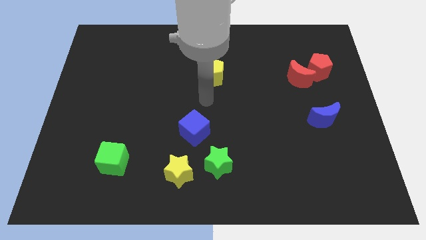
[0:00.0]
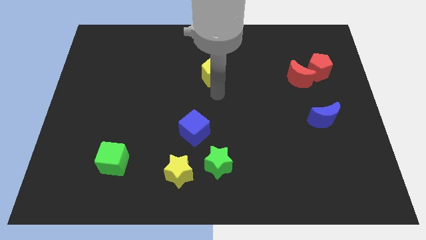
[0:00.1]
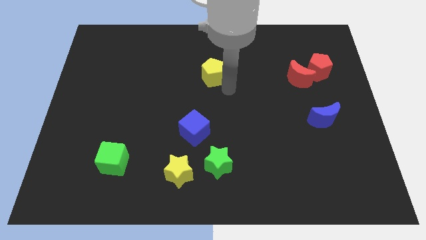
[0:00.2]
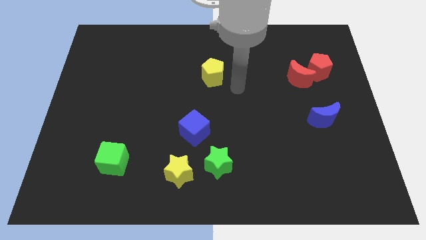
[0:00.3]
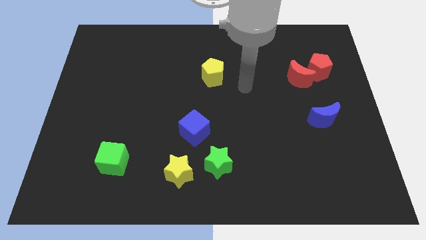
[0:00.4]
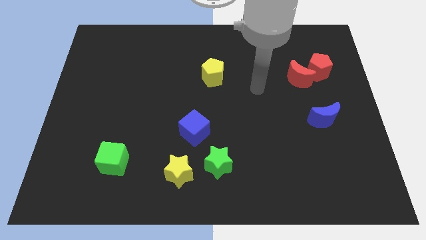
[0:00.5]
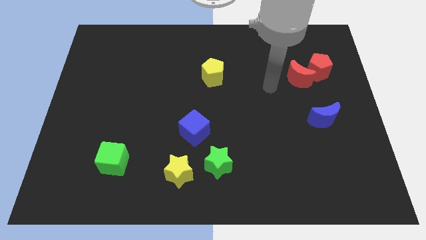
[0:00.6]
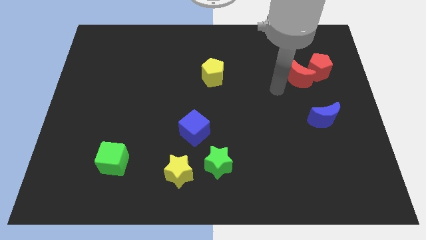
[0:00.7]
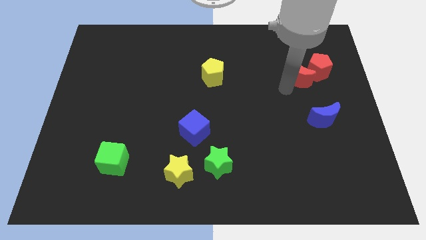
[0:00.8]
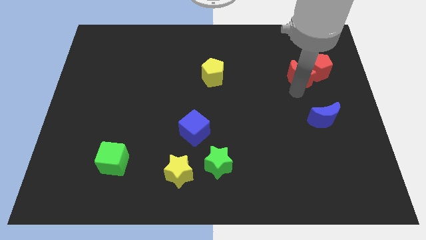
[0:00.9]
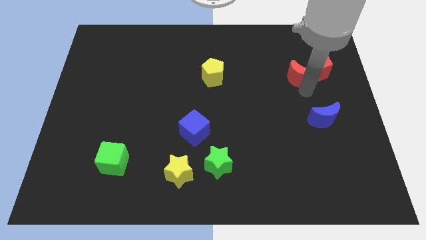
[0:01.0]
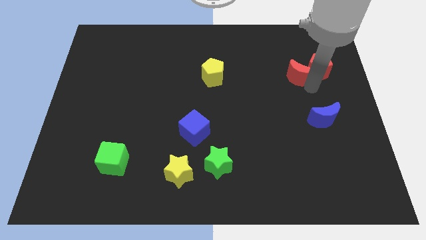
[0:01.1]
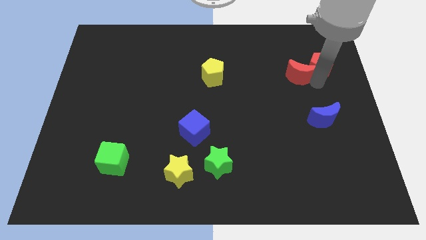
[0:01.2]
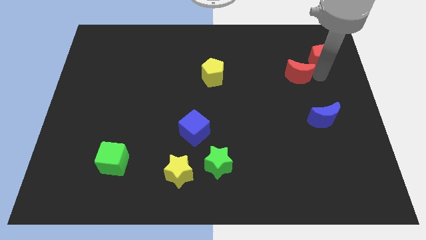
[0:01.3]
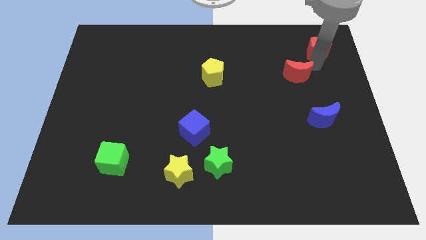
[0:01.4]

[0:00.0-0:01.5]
separate the red moon from the red pentagon

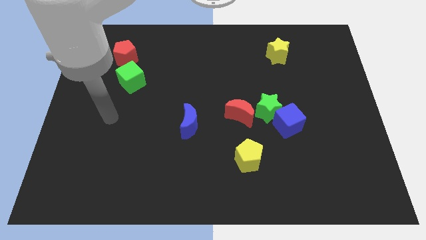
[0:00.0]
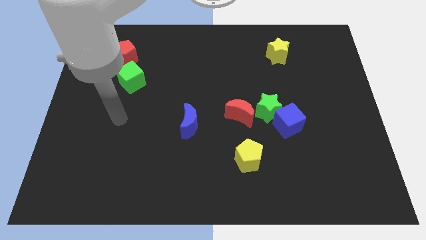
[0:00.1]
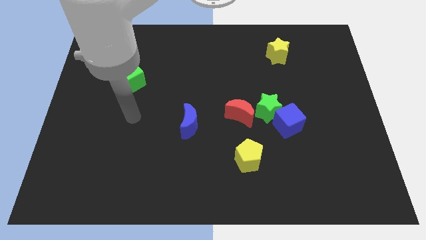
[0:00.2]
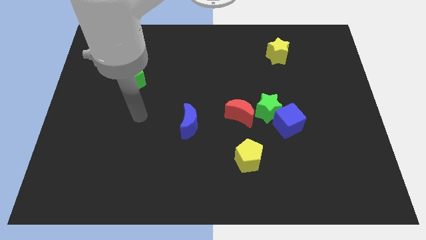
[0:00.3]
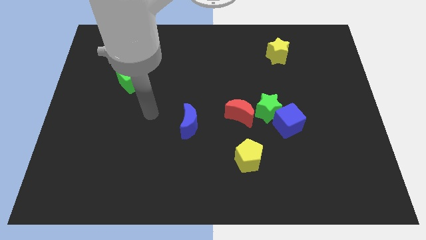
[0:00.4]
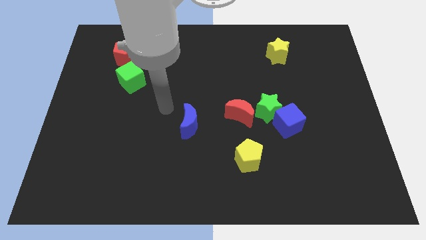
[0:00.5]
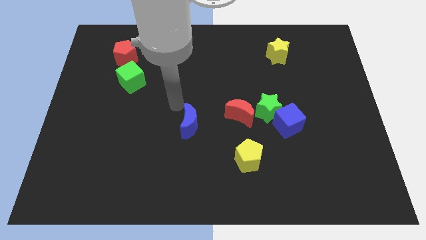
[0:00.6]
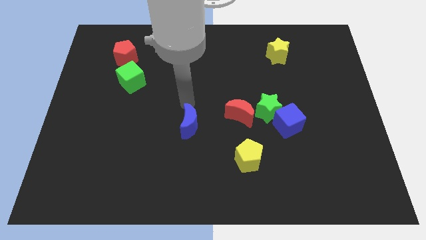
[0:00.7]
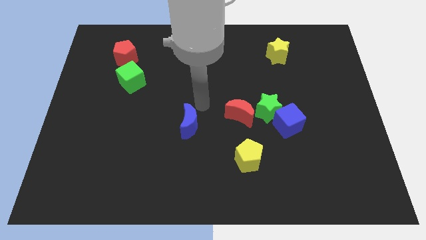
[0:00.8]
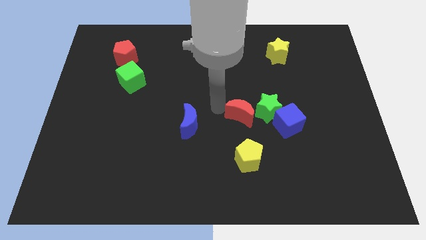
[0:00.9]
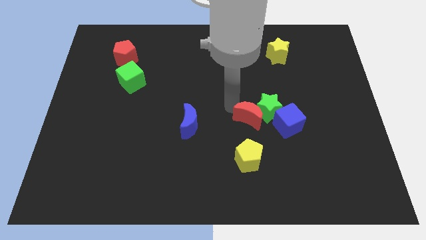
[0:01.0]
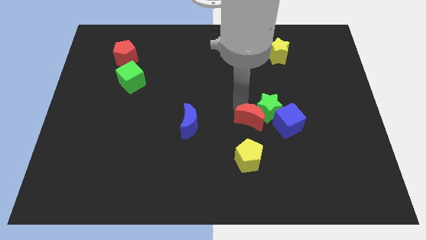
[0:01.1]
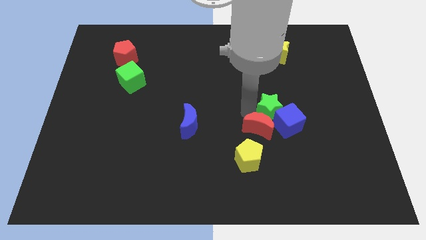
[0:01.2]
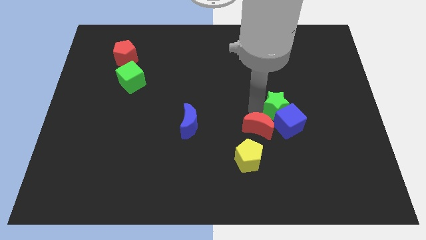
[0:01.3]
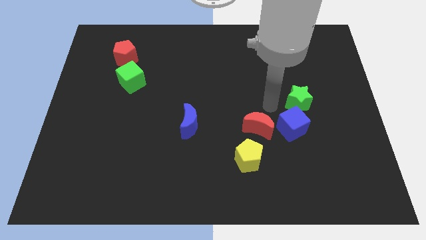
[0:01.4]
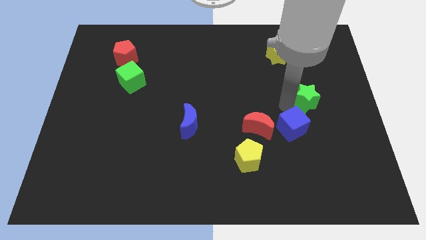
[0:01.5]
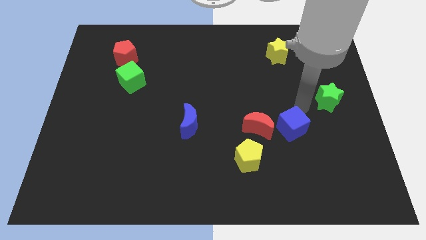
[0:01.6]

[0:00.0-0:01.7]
separate the blue cube from the green star

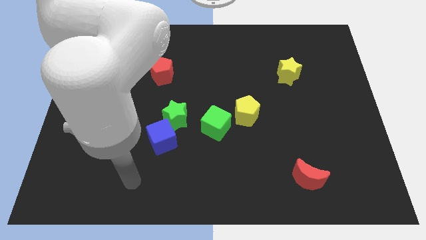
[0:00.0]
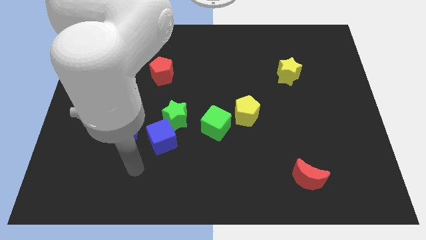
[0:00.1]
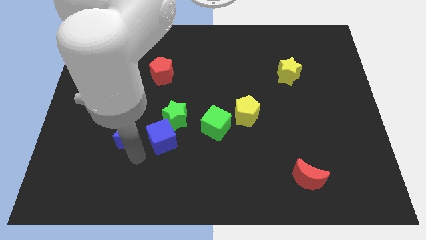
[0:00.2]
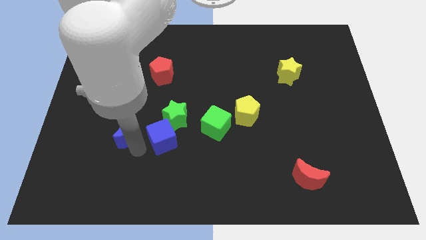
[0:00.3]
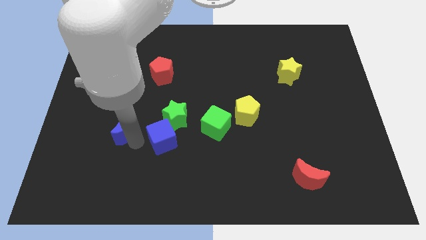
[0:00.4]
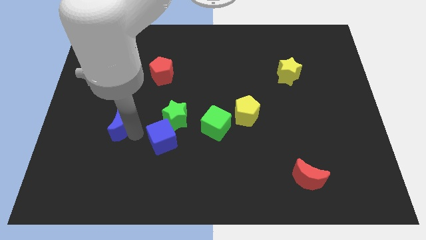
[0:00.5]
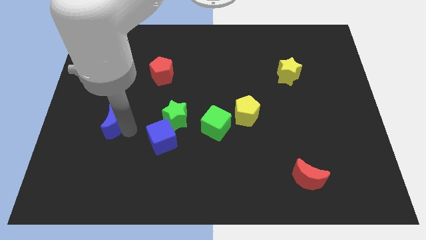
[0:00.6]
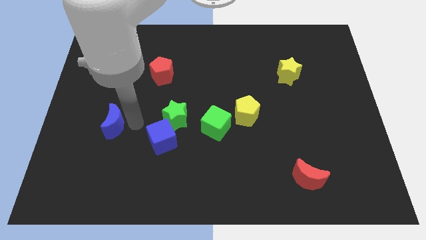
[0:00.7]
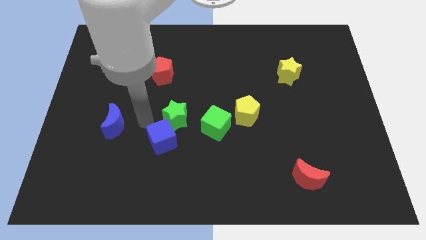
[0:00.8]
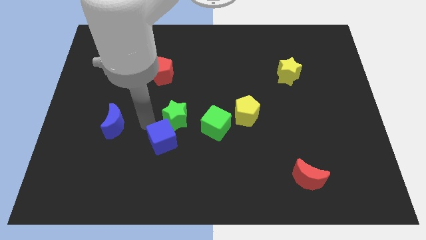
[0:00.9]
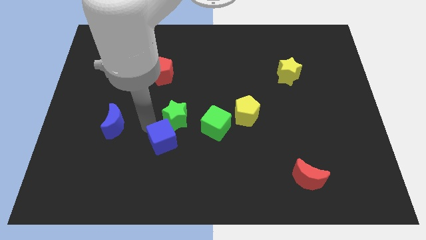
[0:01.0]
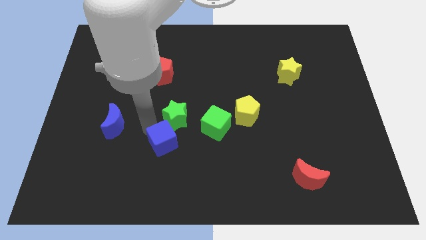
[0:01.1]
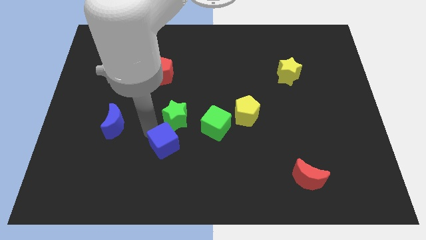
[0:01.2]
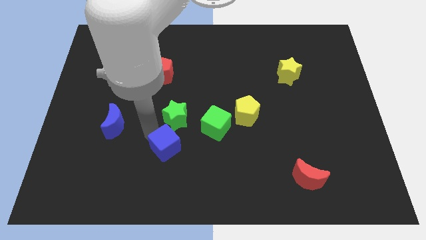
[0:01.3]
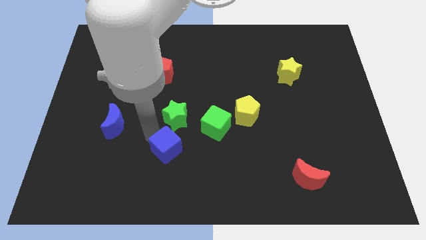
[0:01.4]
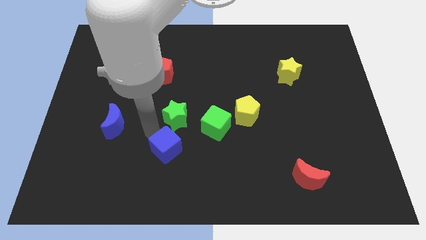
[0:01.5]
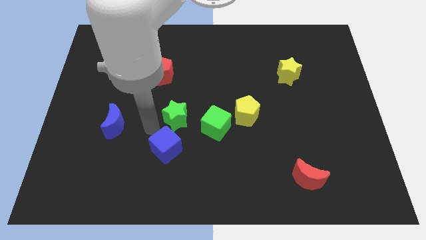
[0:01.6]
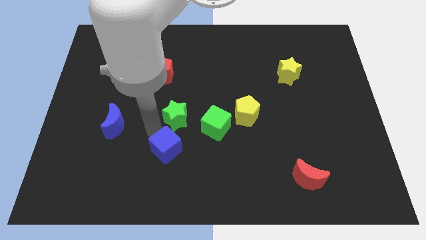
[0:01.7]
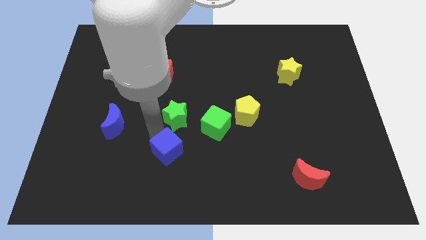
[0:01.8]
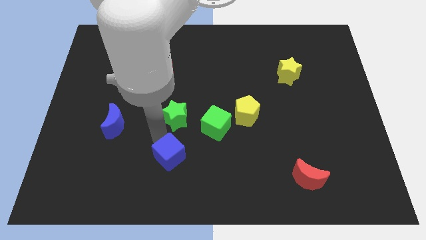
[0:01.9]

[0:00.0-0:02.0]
pull the blue cube apart from the green star and blue moon

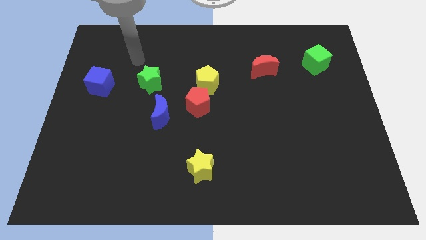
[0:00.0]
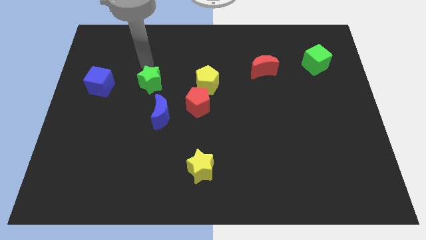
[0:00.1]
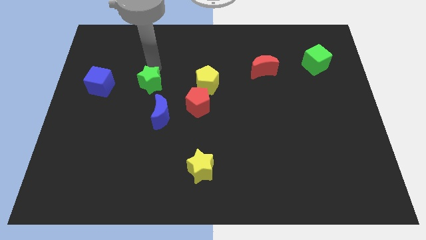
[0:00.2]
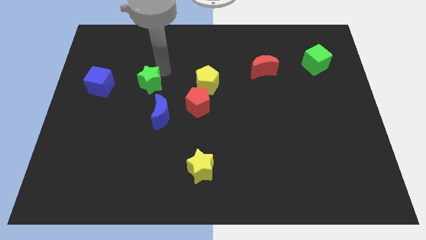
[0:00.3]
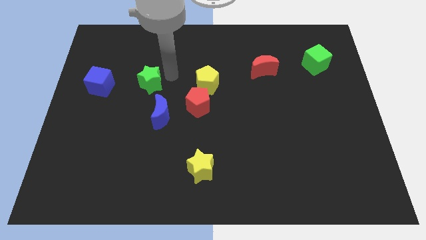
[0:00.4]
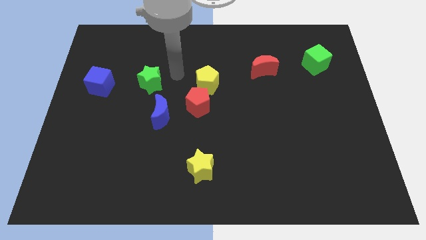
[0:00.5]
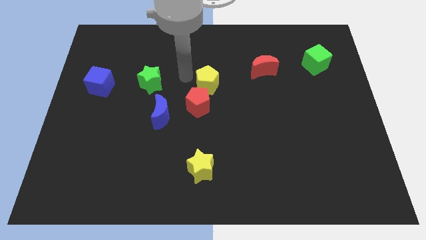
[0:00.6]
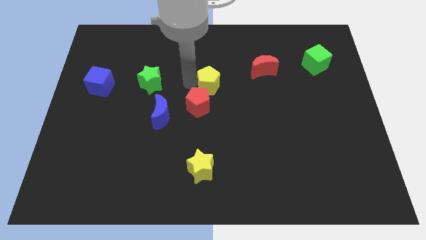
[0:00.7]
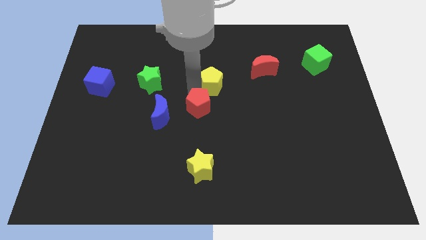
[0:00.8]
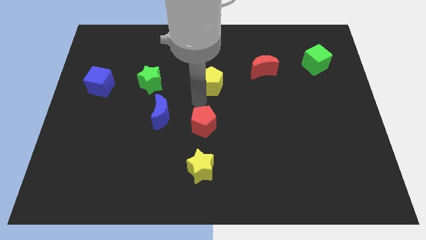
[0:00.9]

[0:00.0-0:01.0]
separate the yellow pentagon from the red pentagon

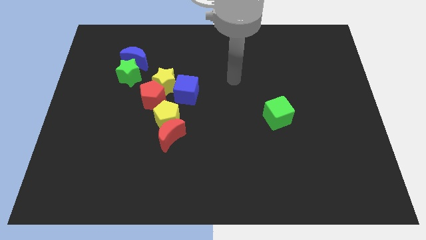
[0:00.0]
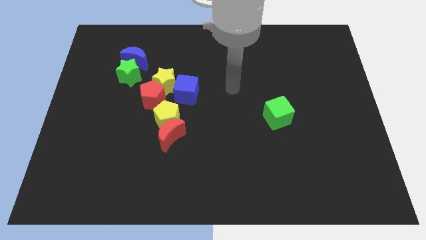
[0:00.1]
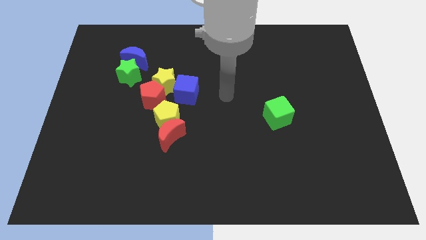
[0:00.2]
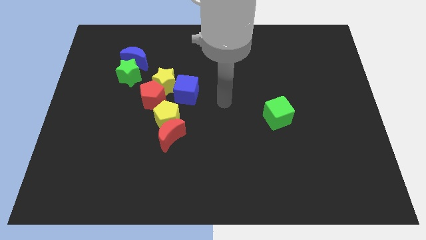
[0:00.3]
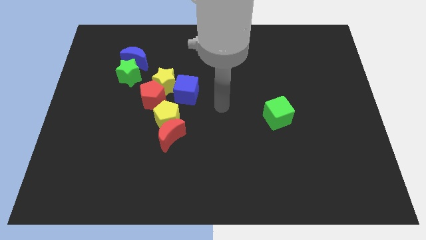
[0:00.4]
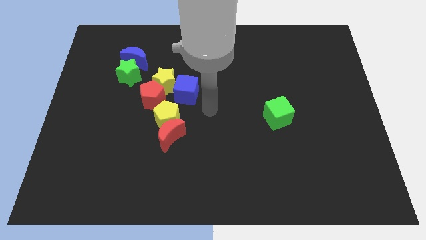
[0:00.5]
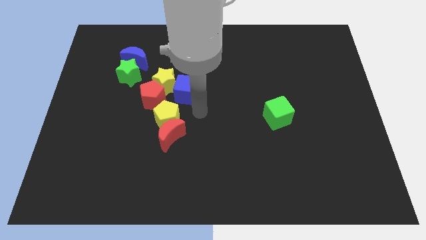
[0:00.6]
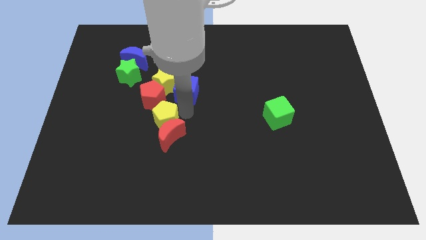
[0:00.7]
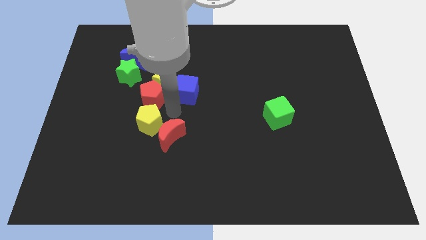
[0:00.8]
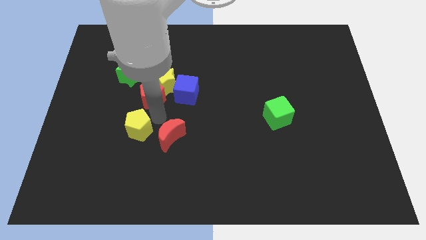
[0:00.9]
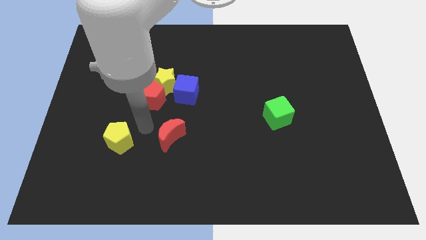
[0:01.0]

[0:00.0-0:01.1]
separate the red moon from the yellow pentagon

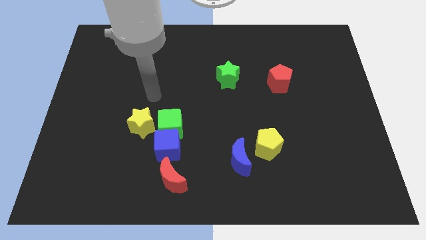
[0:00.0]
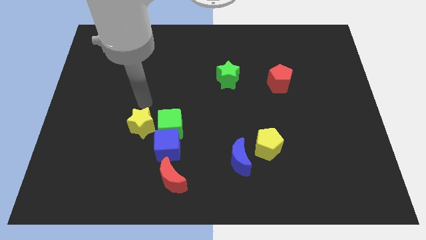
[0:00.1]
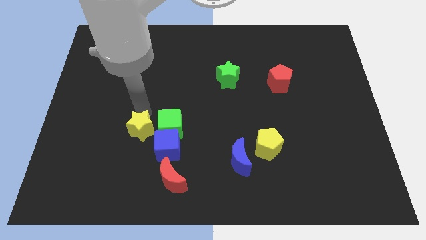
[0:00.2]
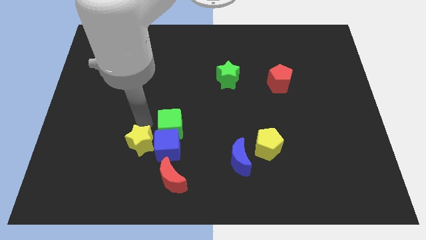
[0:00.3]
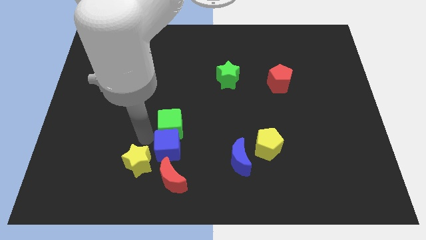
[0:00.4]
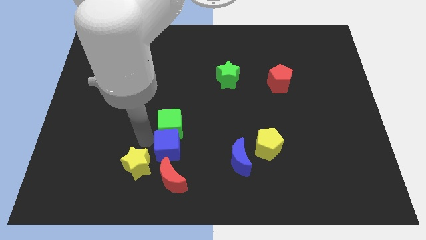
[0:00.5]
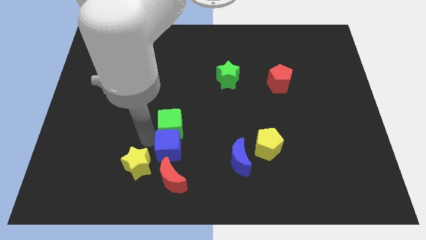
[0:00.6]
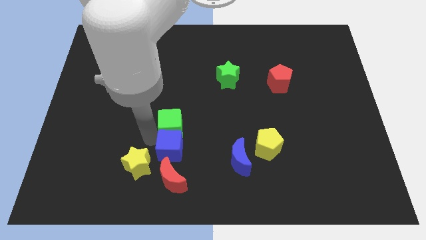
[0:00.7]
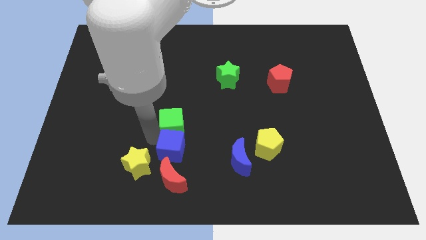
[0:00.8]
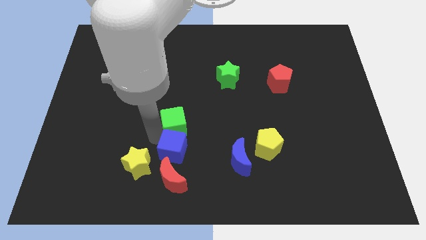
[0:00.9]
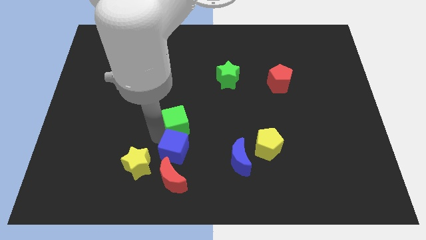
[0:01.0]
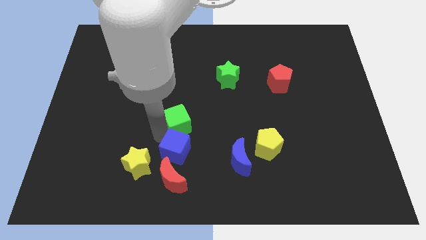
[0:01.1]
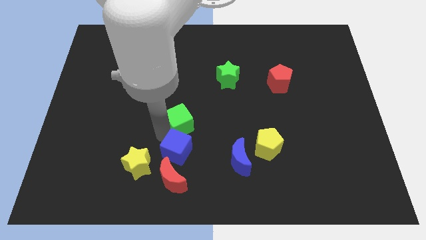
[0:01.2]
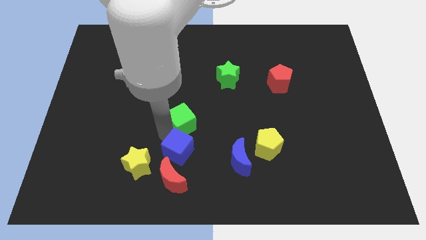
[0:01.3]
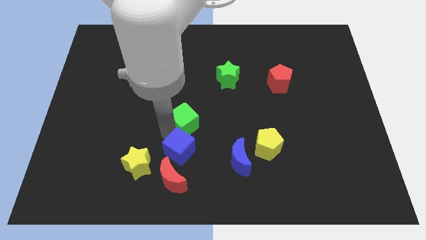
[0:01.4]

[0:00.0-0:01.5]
separate the green cube from the blue cube and yellow star

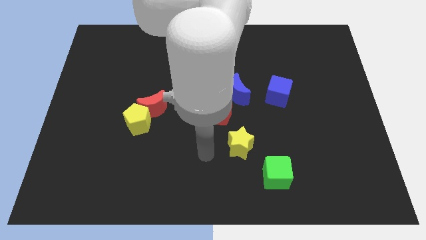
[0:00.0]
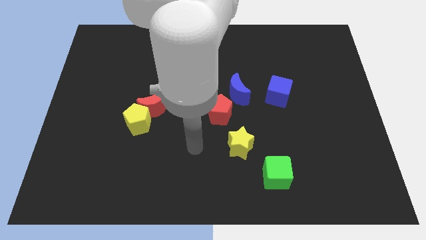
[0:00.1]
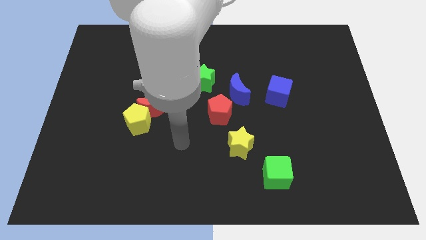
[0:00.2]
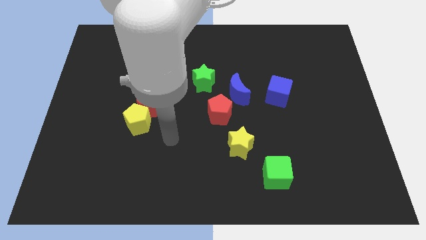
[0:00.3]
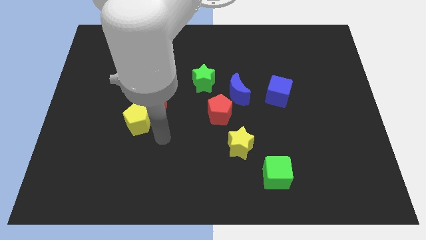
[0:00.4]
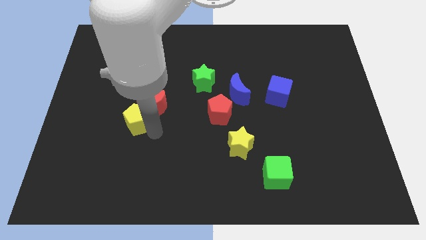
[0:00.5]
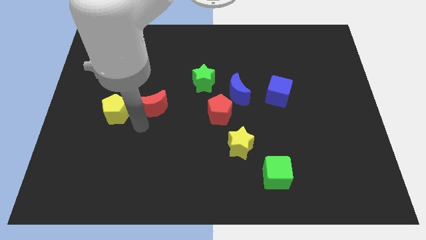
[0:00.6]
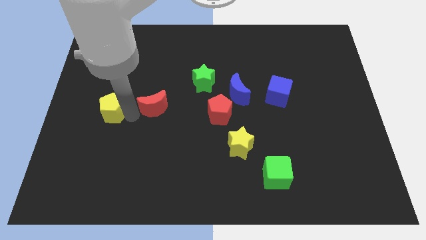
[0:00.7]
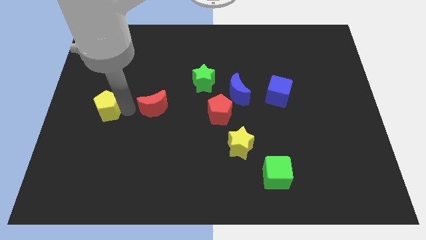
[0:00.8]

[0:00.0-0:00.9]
pull the red moon apart from the yellow pentagon
